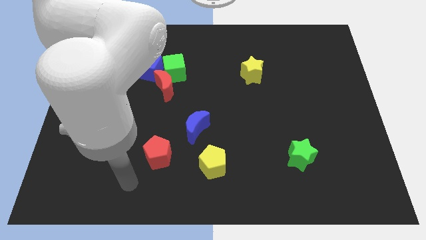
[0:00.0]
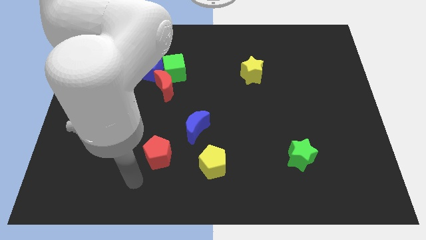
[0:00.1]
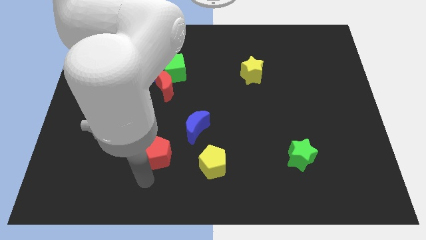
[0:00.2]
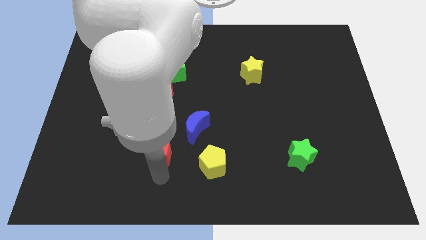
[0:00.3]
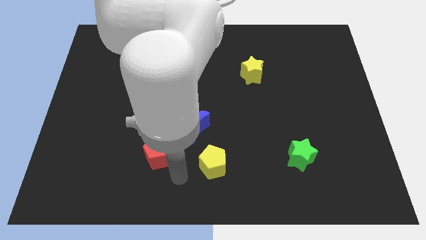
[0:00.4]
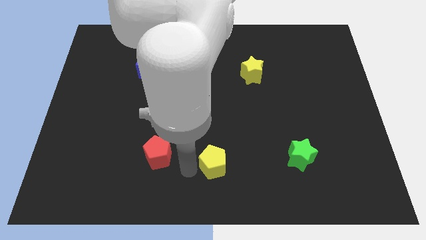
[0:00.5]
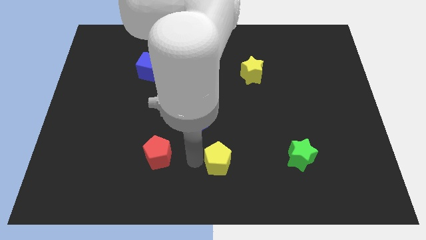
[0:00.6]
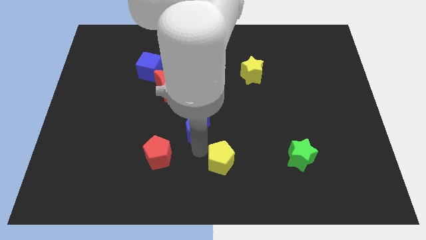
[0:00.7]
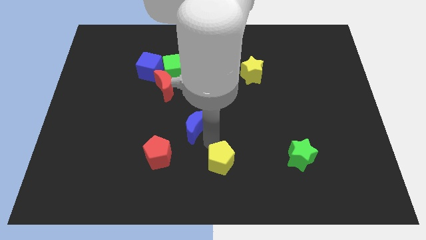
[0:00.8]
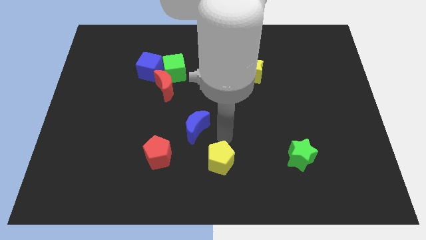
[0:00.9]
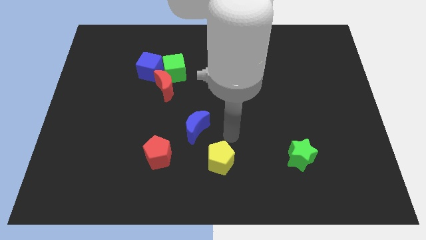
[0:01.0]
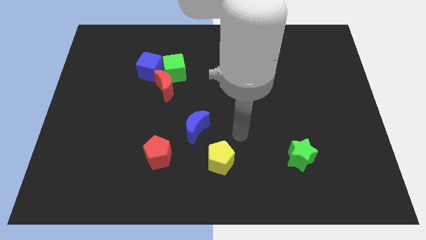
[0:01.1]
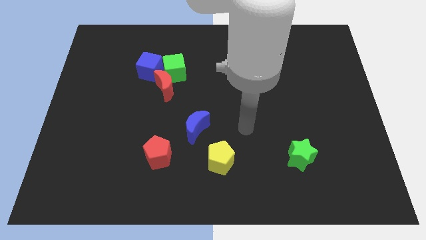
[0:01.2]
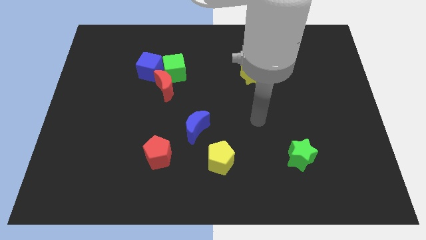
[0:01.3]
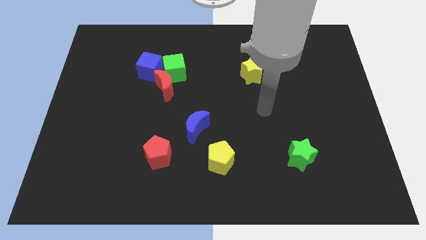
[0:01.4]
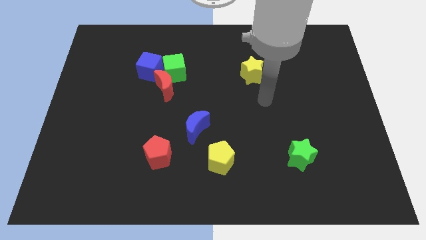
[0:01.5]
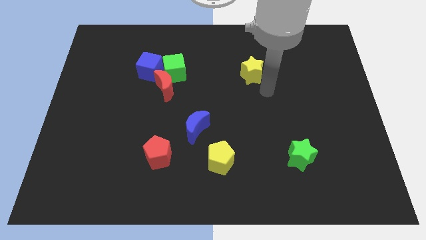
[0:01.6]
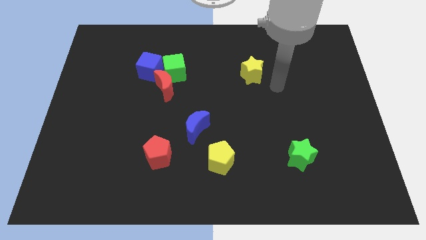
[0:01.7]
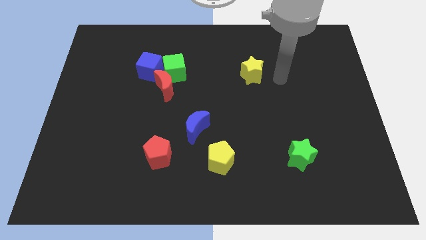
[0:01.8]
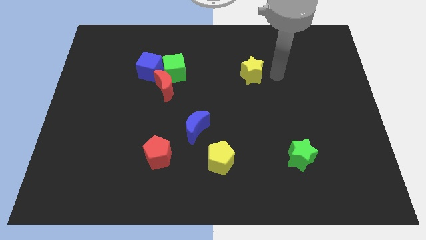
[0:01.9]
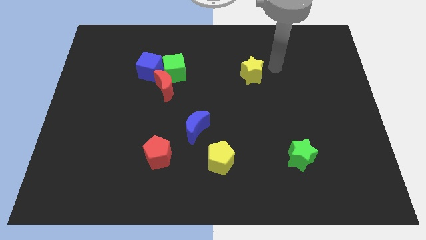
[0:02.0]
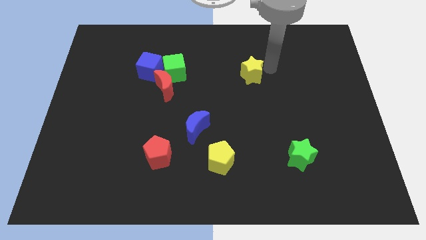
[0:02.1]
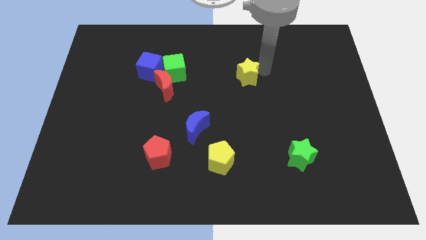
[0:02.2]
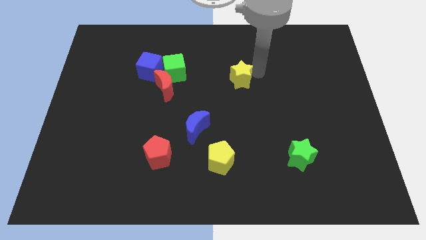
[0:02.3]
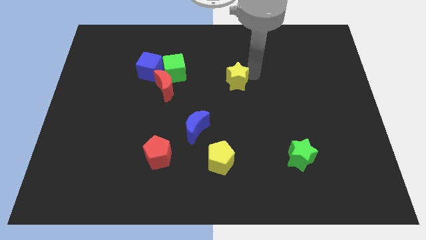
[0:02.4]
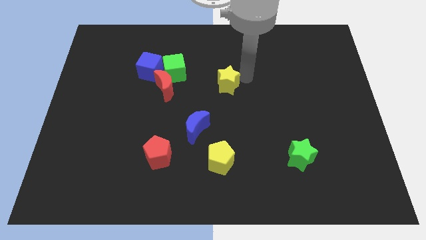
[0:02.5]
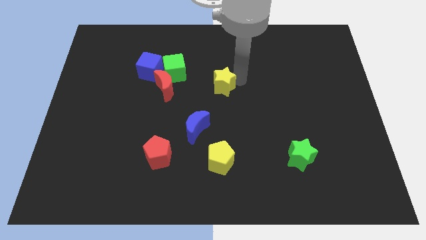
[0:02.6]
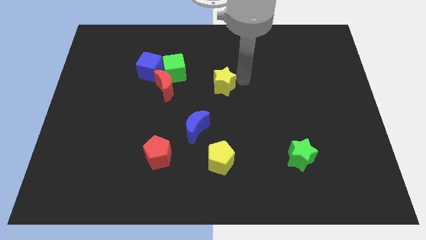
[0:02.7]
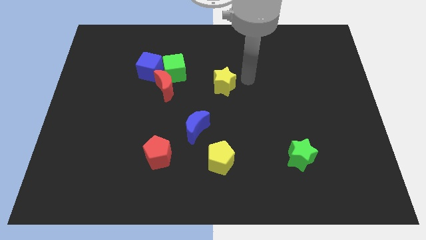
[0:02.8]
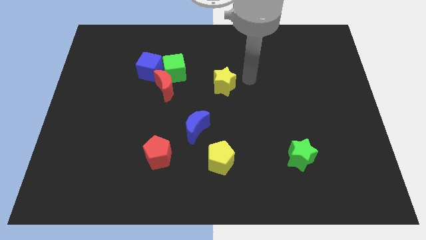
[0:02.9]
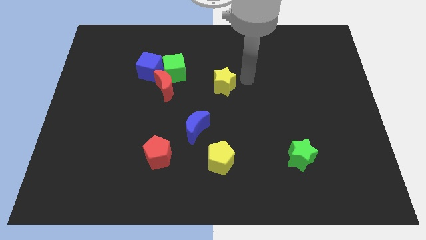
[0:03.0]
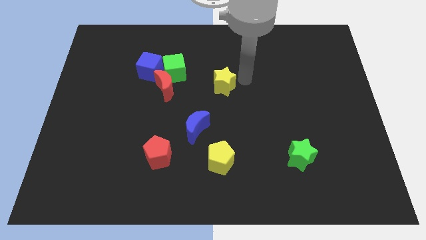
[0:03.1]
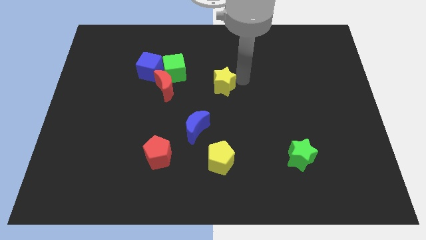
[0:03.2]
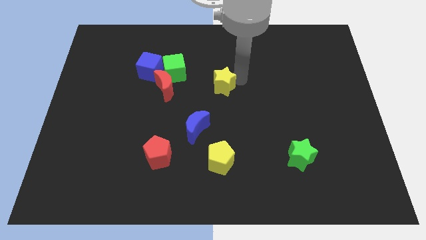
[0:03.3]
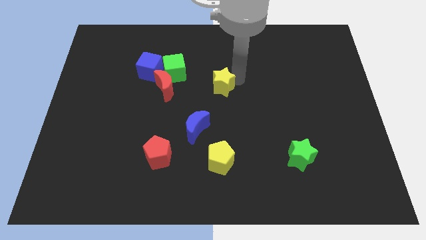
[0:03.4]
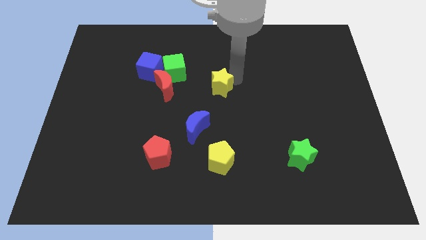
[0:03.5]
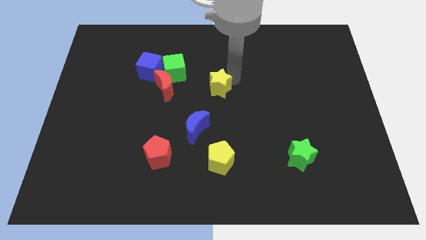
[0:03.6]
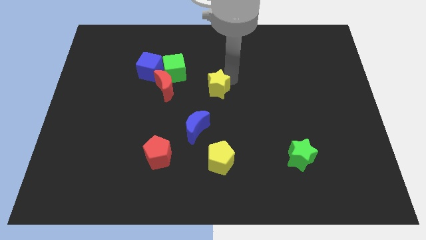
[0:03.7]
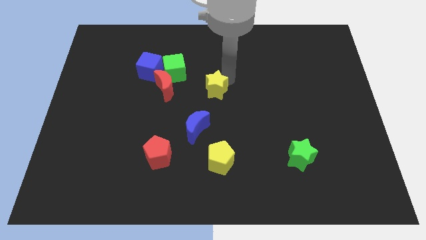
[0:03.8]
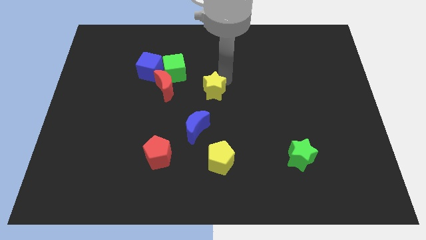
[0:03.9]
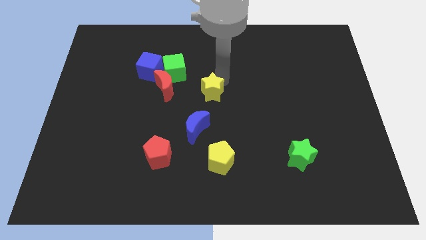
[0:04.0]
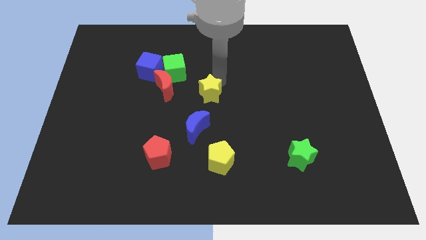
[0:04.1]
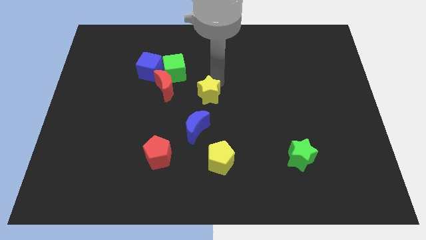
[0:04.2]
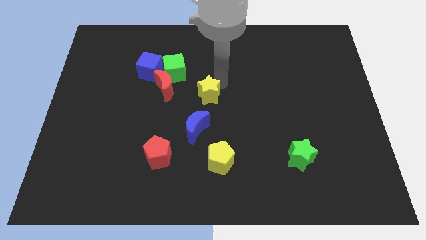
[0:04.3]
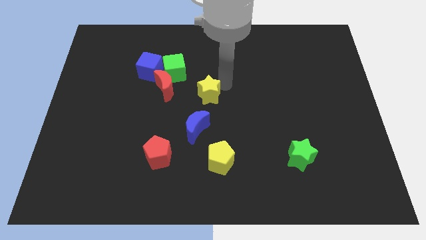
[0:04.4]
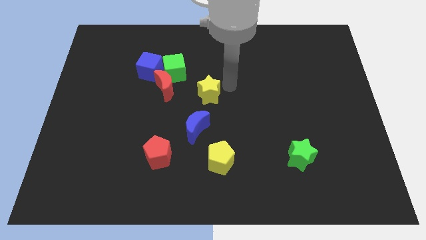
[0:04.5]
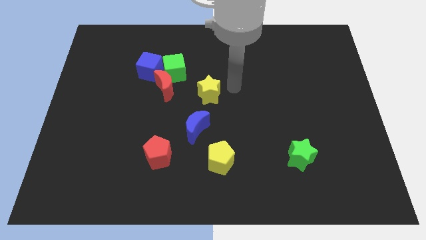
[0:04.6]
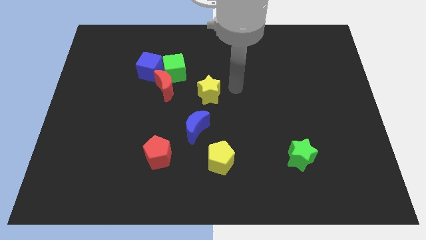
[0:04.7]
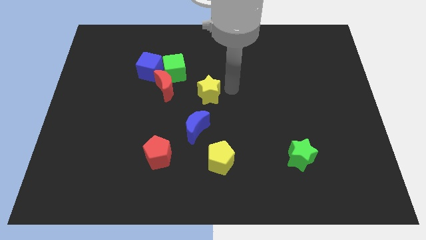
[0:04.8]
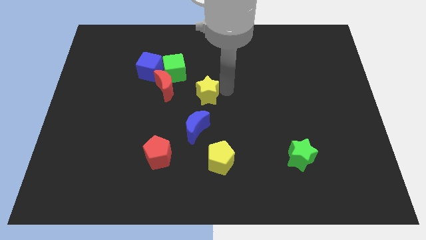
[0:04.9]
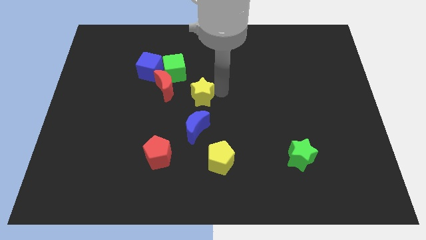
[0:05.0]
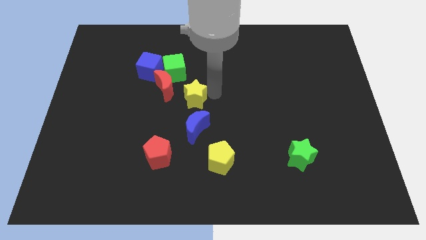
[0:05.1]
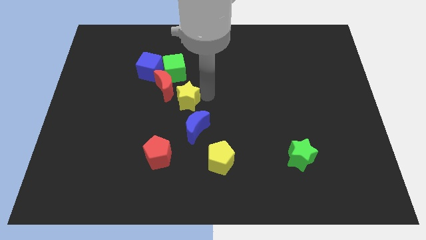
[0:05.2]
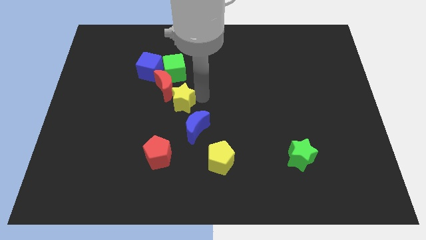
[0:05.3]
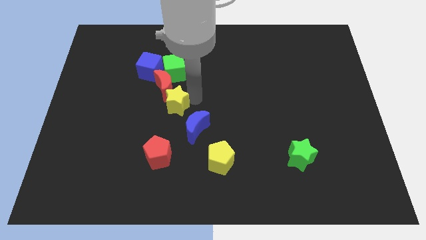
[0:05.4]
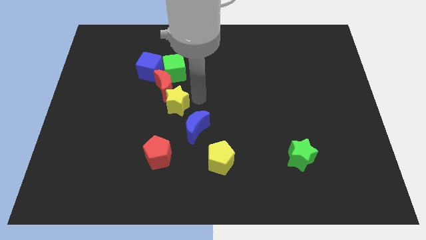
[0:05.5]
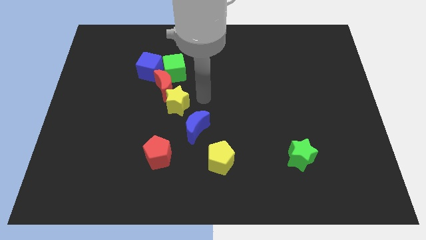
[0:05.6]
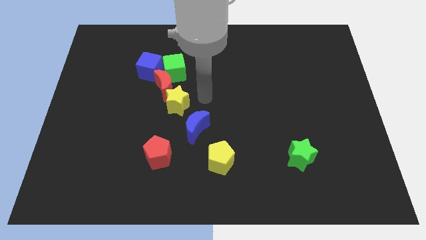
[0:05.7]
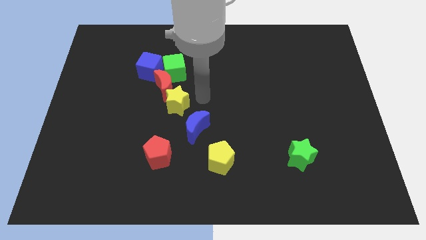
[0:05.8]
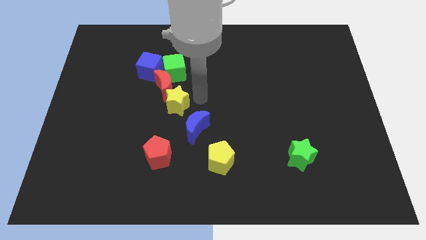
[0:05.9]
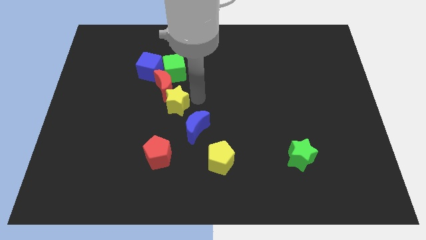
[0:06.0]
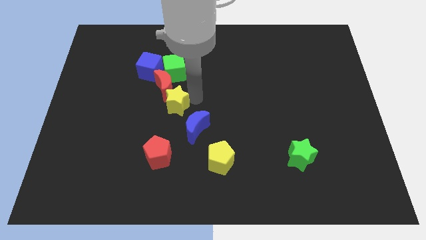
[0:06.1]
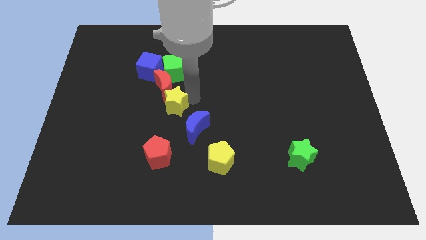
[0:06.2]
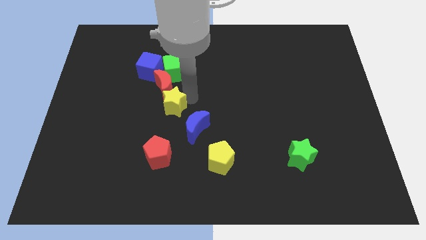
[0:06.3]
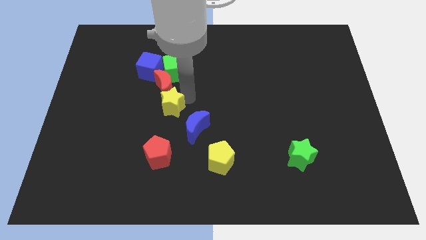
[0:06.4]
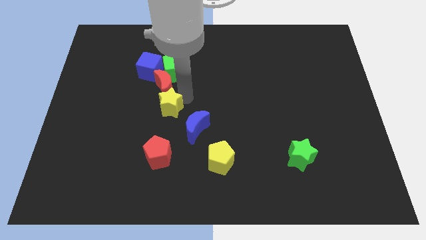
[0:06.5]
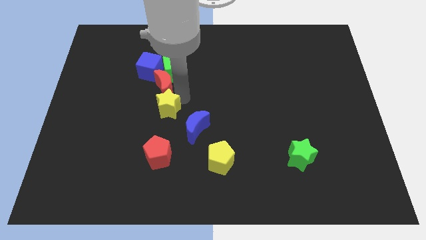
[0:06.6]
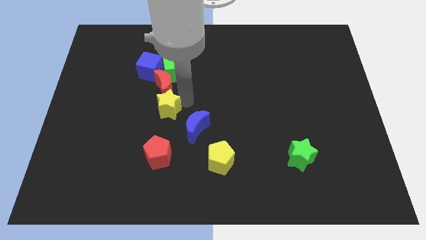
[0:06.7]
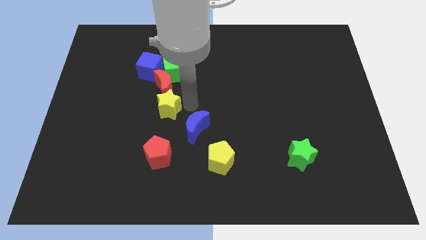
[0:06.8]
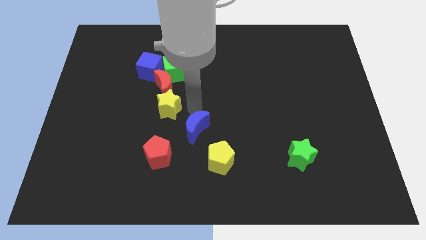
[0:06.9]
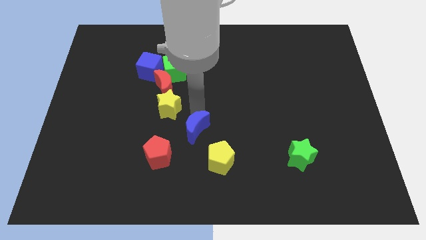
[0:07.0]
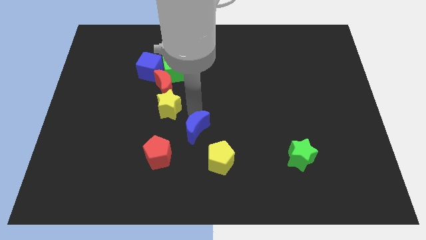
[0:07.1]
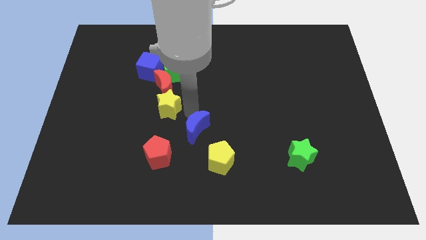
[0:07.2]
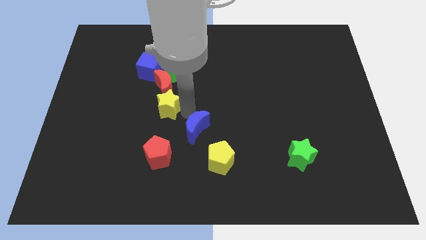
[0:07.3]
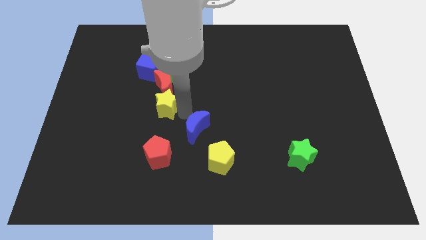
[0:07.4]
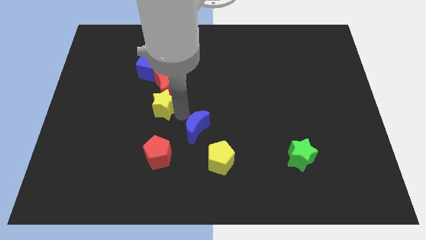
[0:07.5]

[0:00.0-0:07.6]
push the yellow star diagonally down and to the left of the red moon
